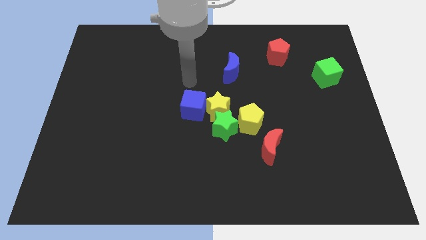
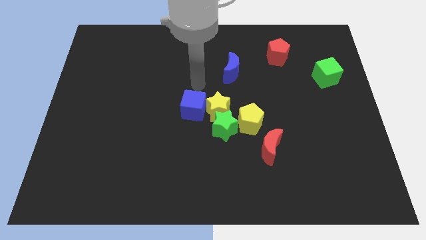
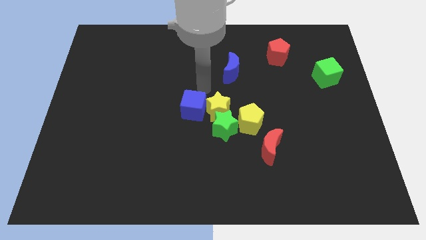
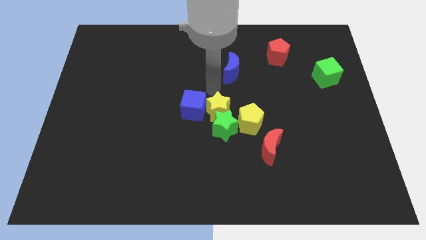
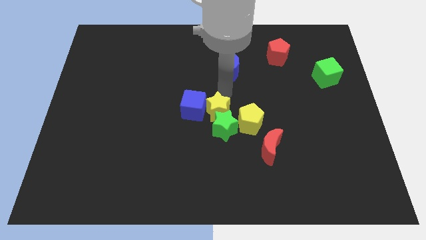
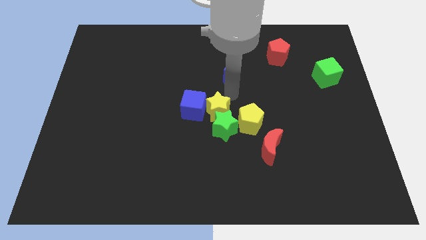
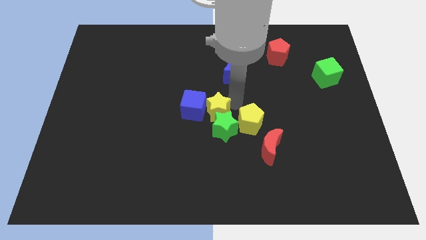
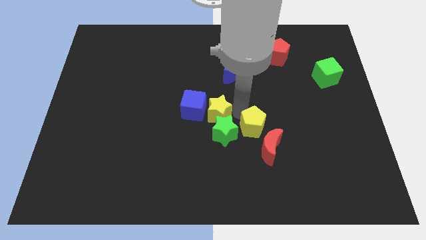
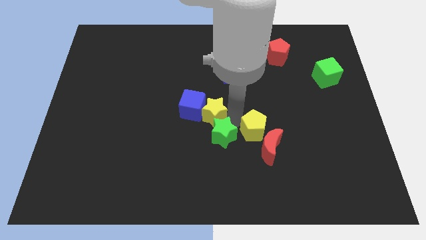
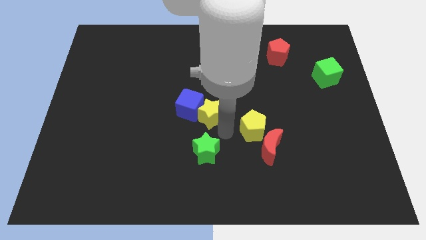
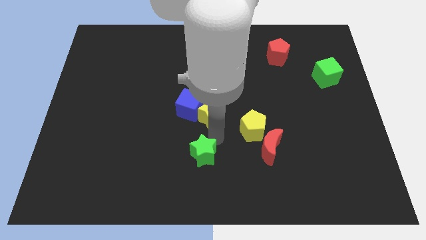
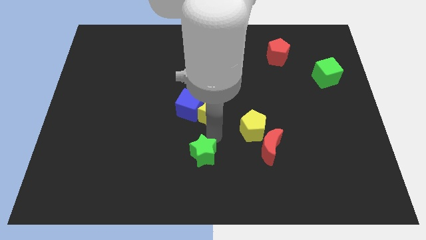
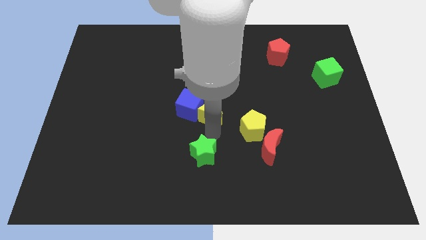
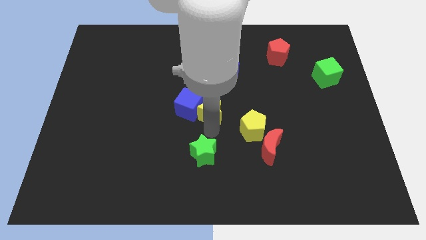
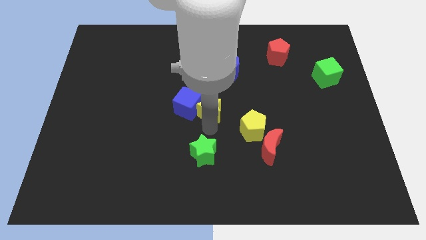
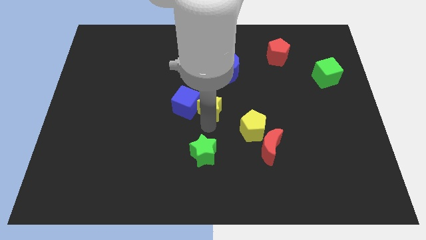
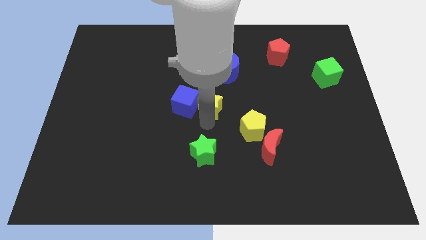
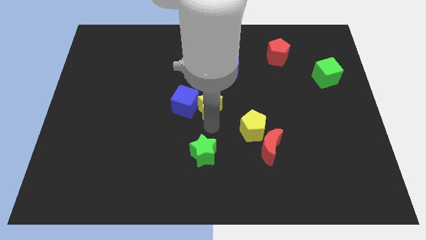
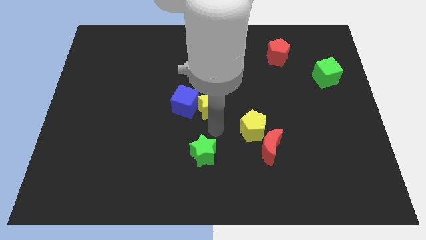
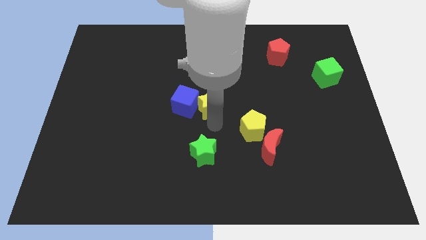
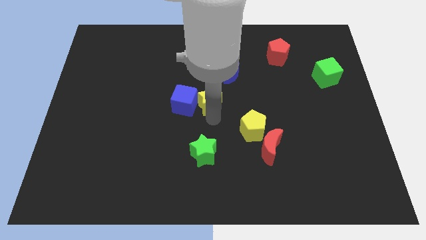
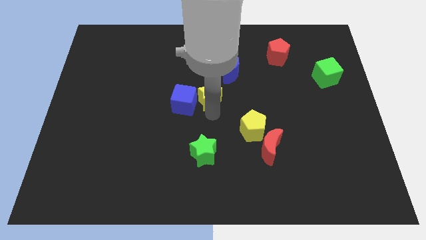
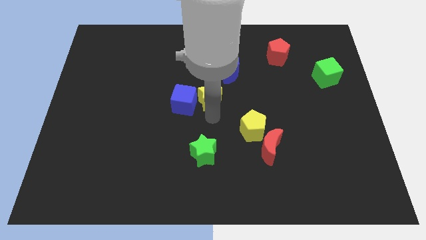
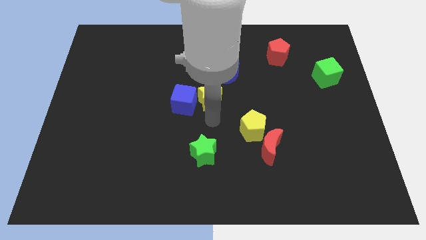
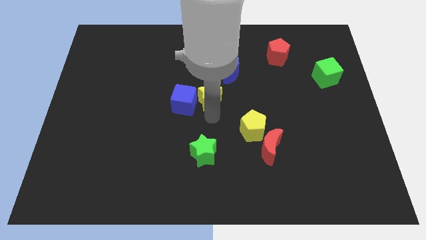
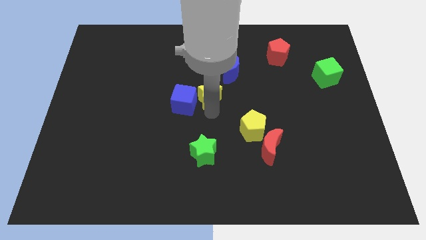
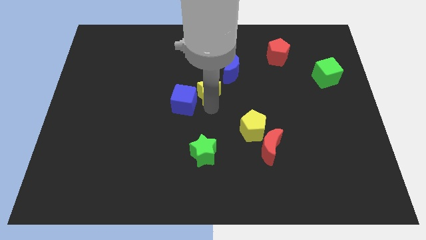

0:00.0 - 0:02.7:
move the yellow star away from the green star, blue cube, and yellow pentagon

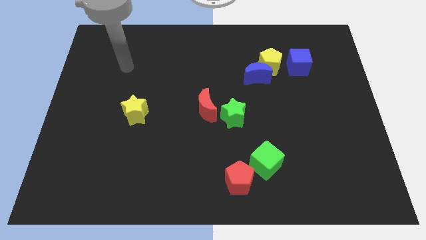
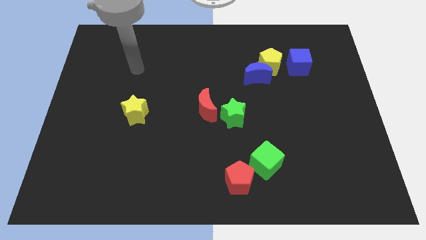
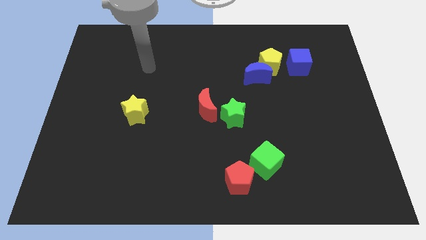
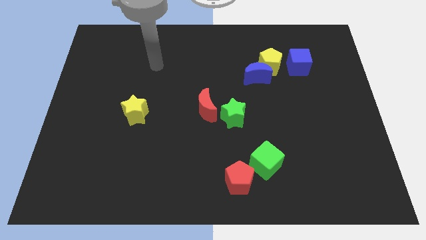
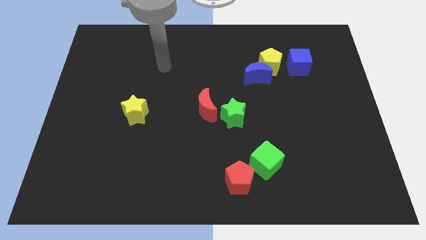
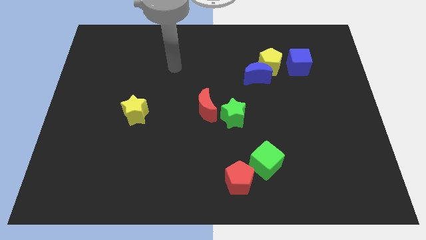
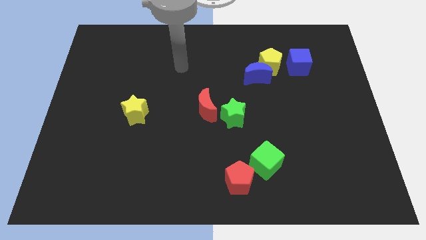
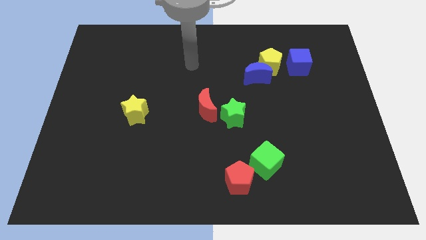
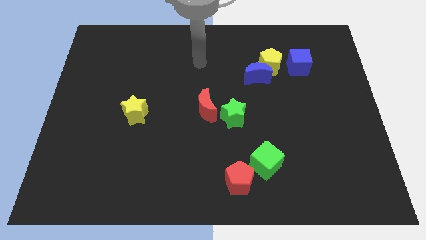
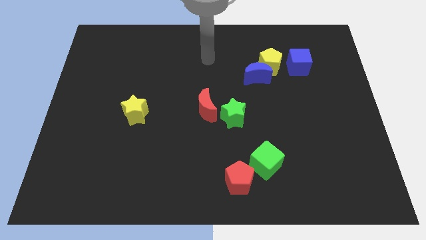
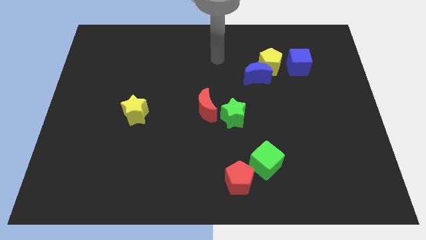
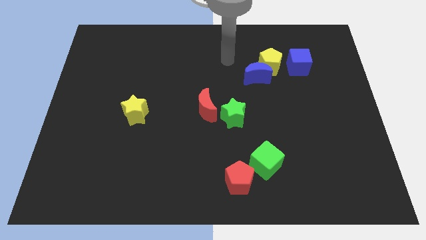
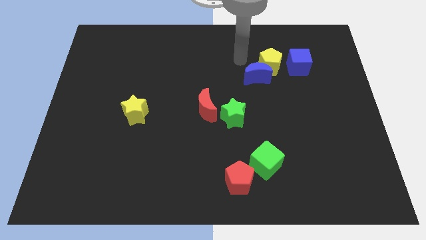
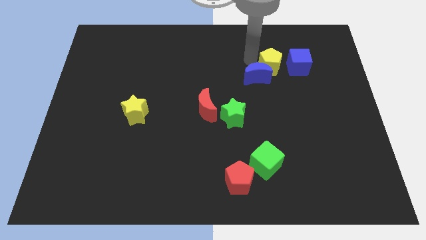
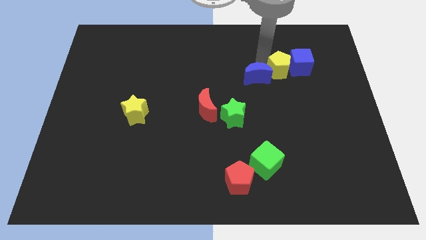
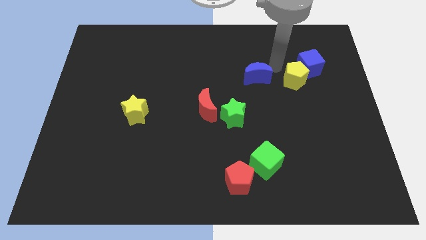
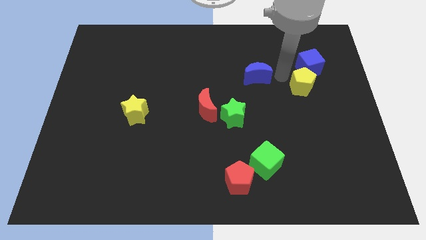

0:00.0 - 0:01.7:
move the blue moon away from the yellow pentagon

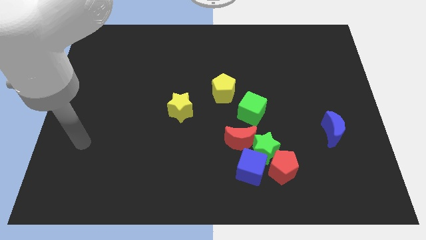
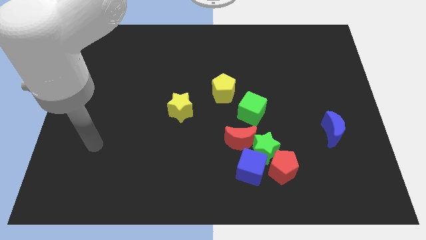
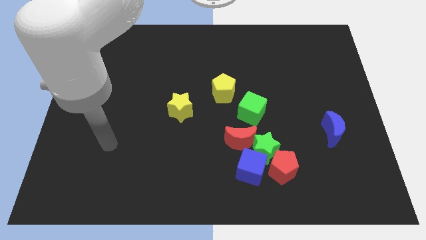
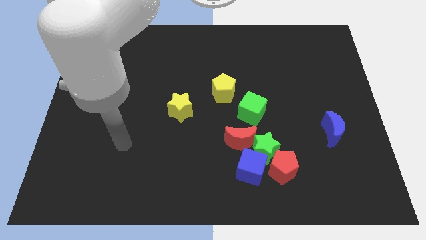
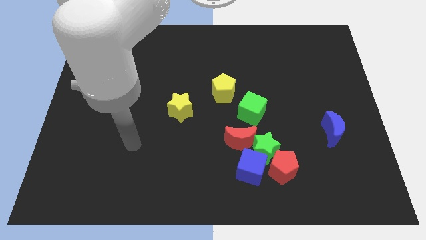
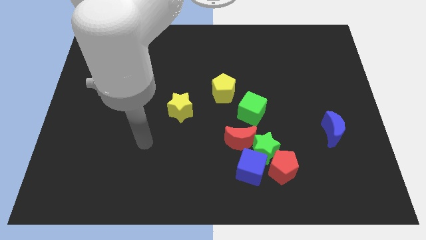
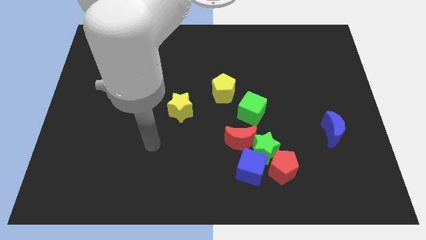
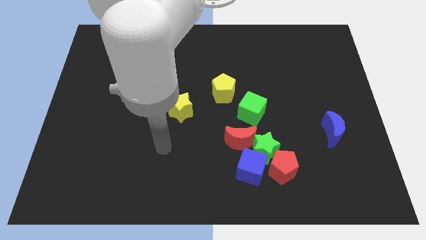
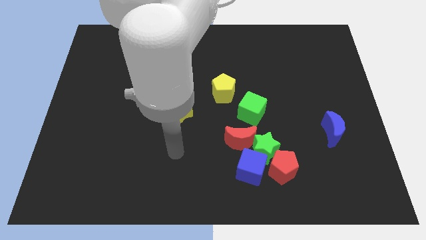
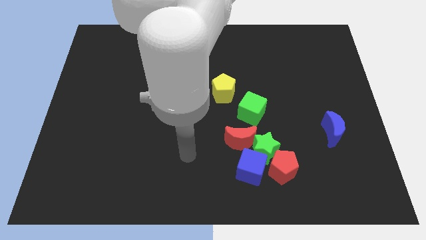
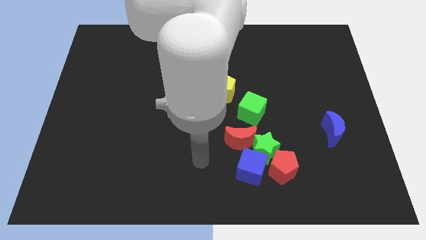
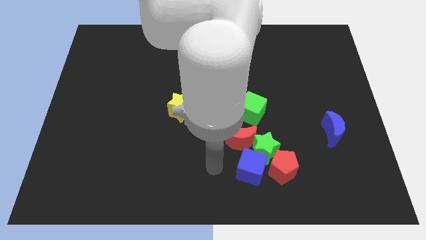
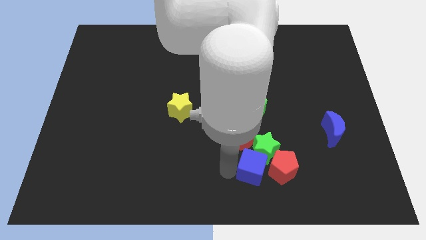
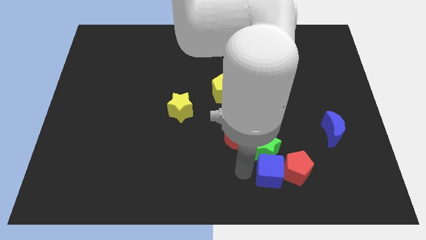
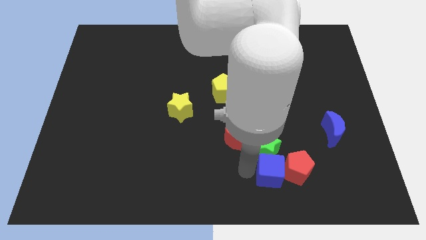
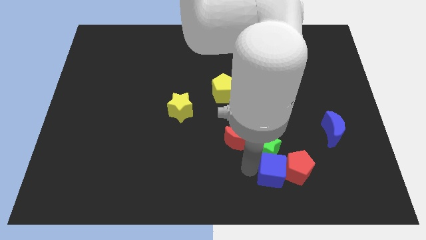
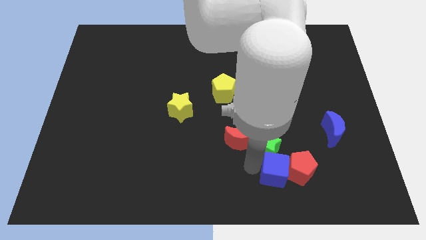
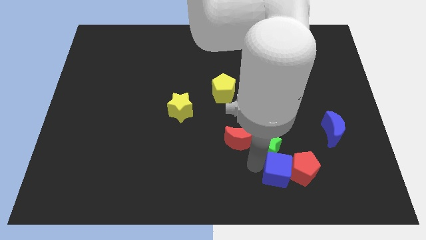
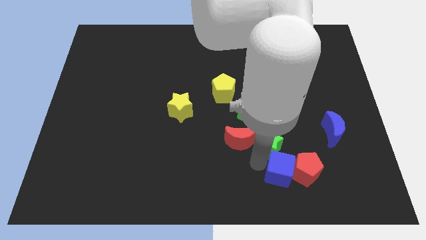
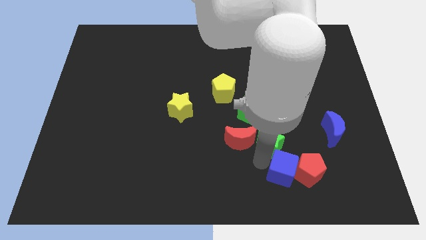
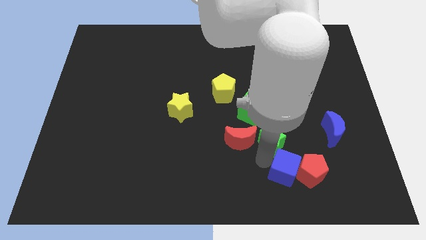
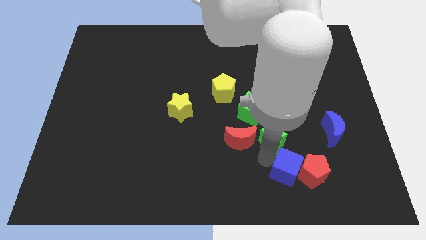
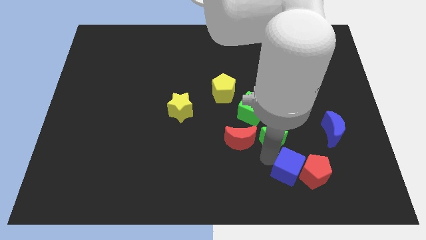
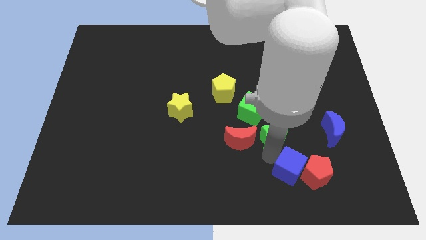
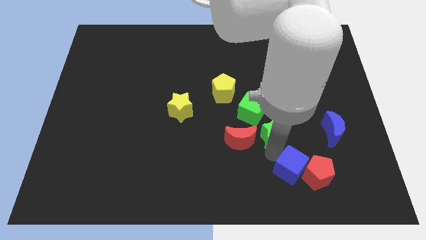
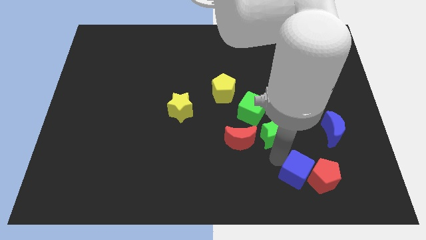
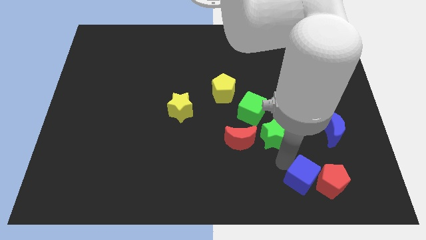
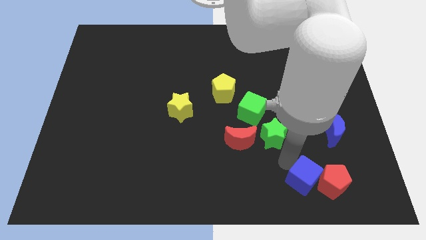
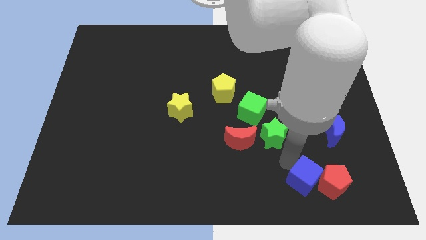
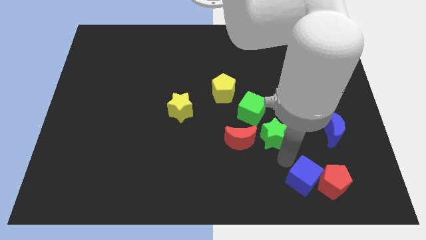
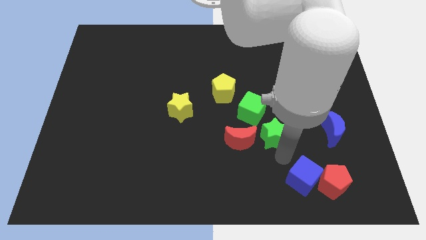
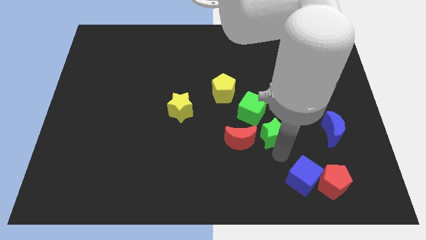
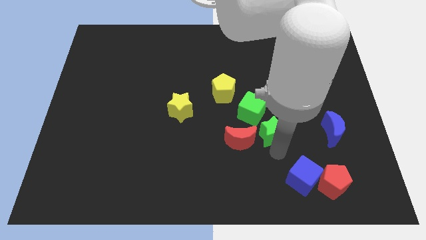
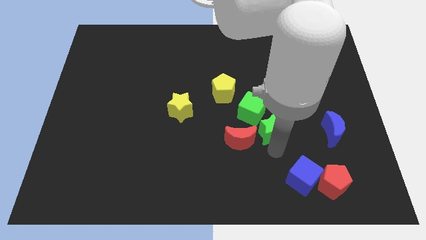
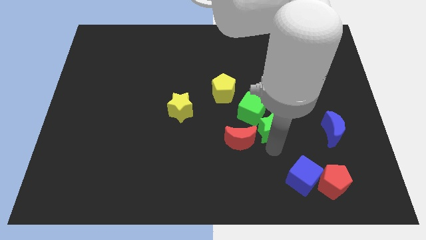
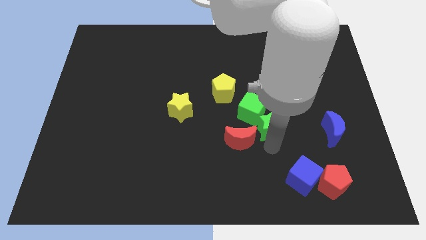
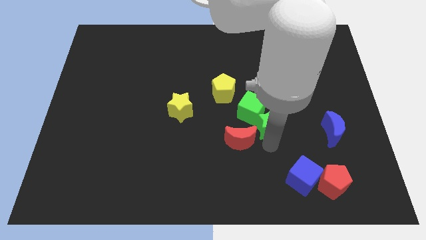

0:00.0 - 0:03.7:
move the green star away from the group of blocks

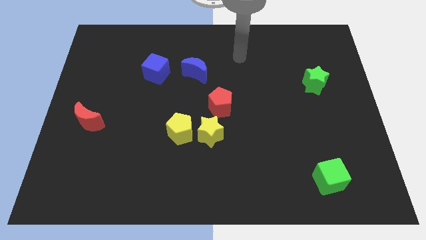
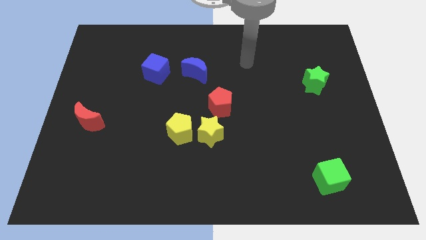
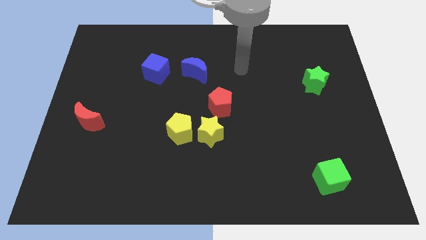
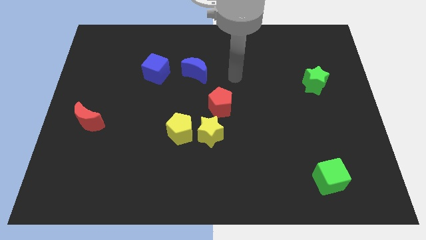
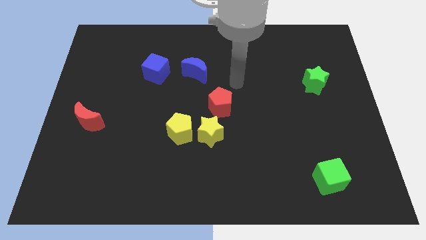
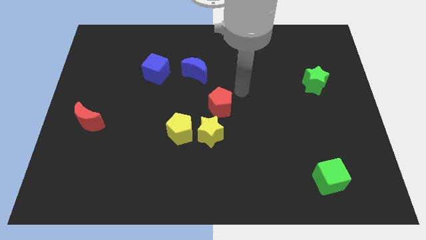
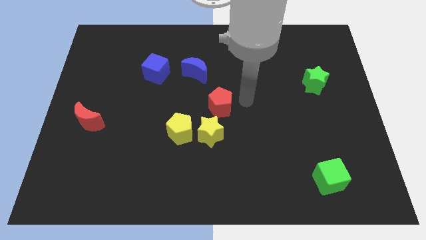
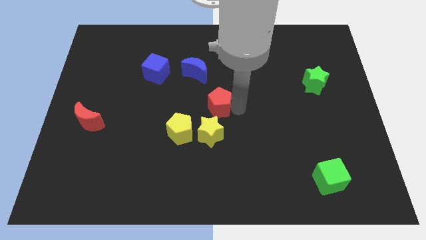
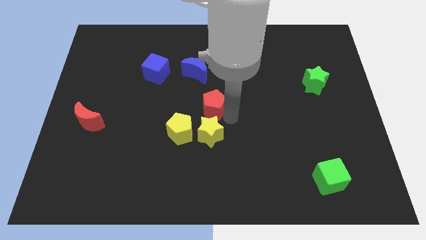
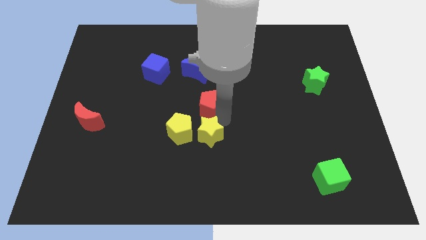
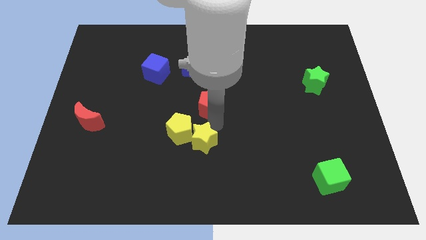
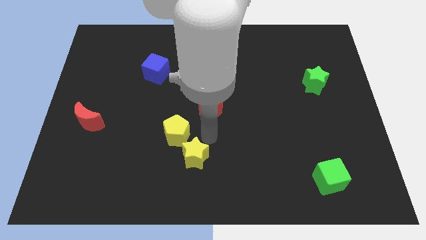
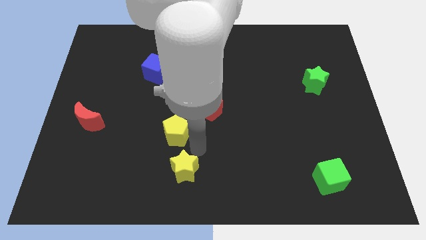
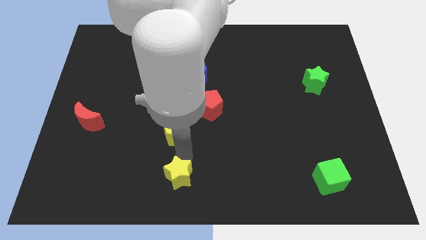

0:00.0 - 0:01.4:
pull the yellow pentagon apart from the yellow star
